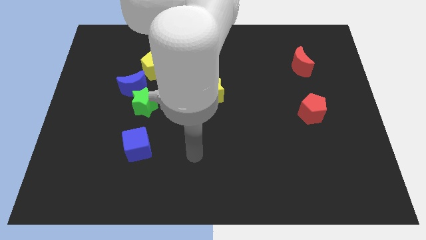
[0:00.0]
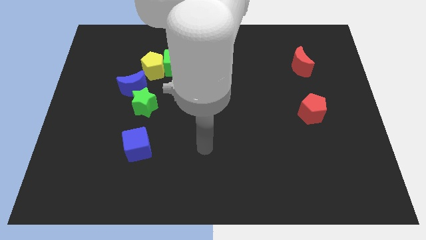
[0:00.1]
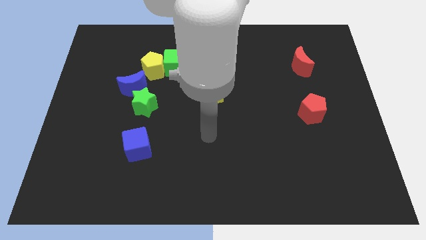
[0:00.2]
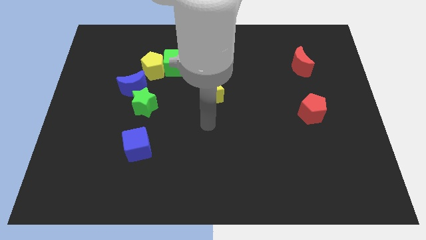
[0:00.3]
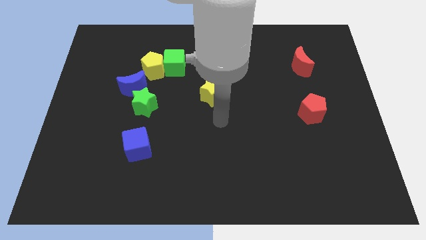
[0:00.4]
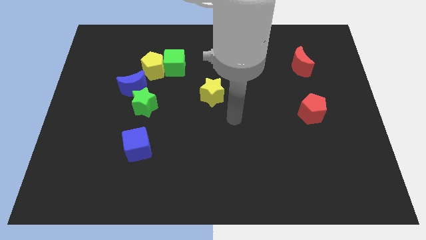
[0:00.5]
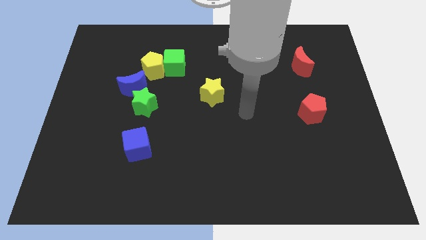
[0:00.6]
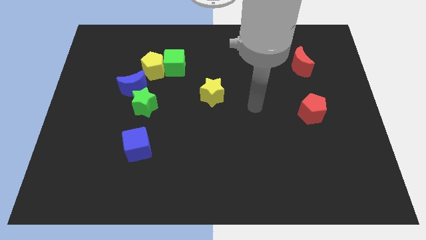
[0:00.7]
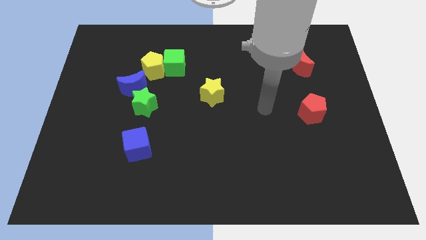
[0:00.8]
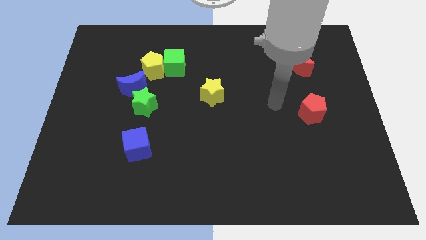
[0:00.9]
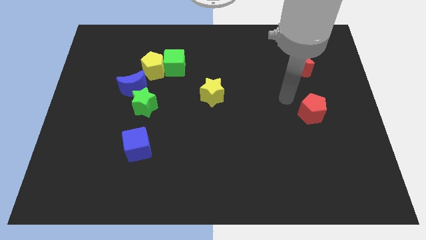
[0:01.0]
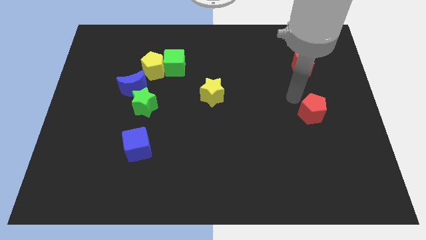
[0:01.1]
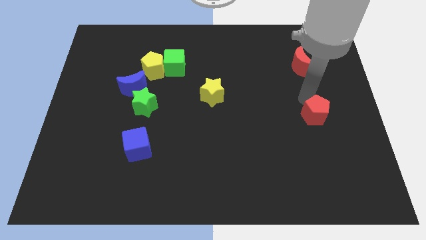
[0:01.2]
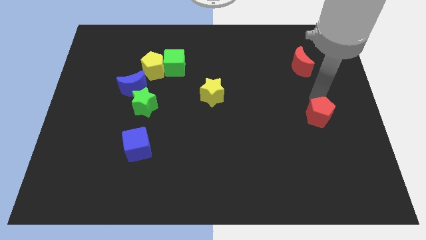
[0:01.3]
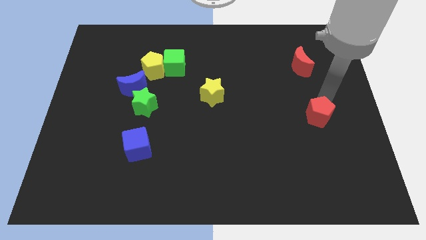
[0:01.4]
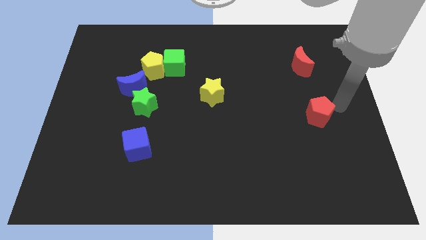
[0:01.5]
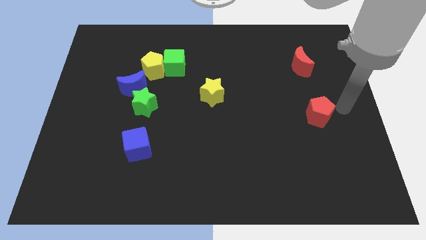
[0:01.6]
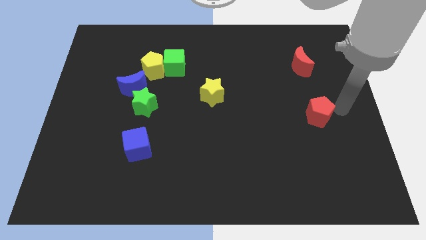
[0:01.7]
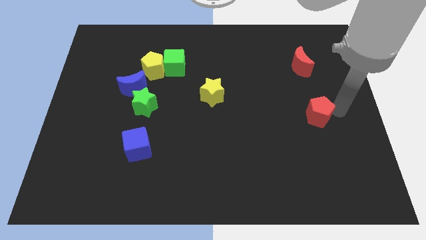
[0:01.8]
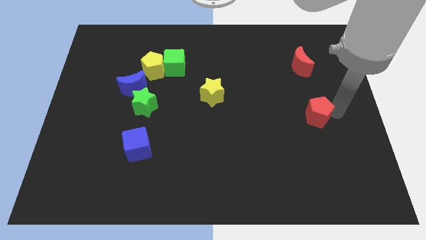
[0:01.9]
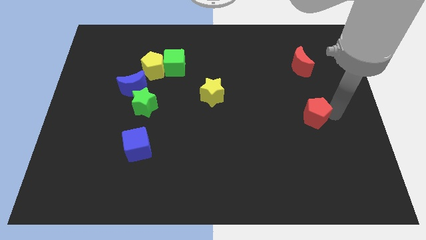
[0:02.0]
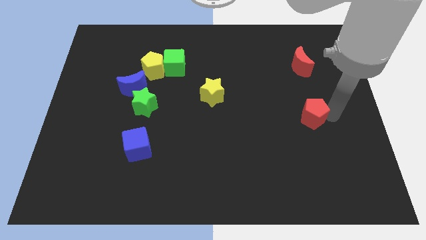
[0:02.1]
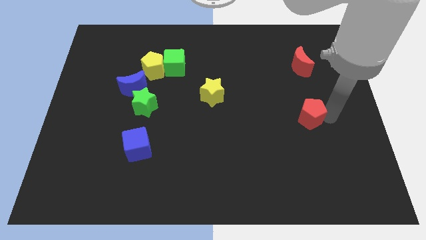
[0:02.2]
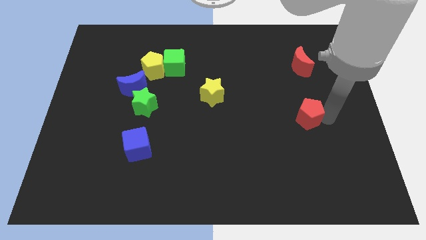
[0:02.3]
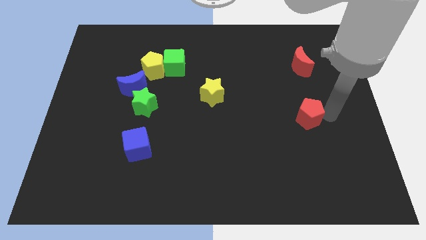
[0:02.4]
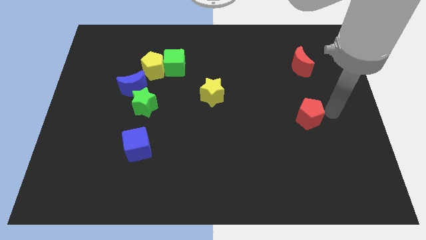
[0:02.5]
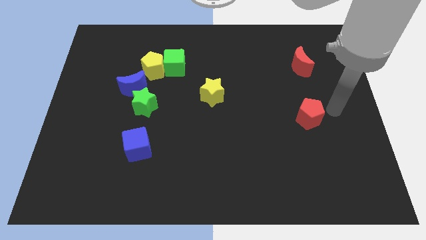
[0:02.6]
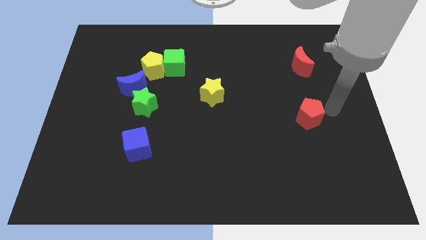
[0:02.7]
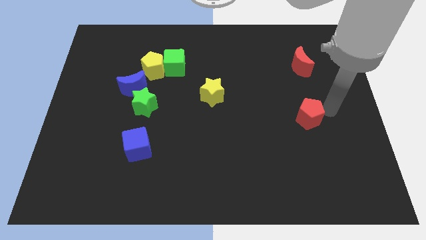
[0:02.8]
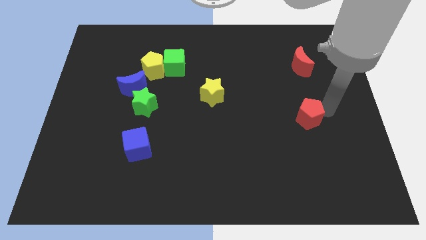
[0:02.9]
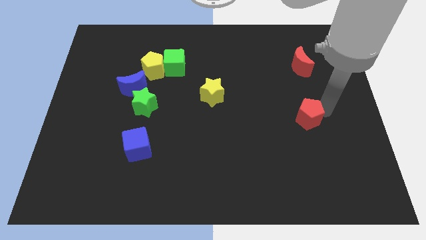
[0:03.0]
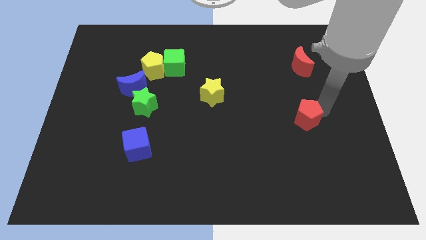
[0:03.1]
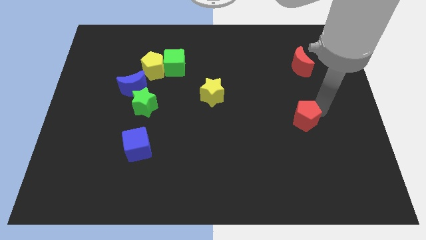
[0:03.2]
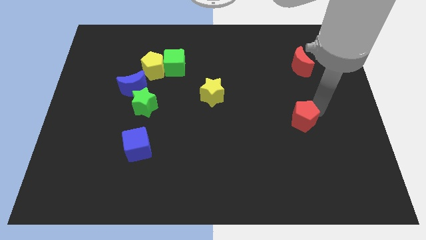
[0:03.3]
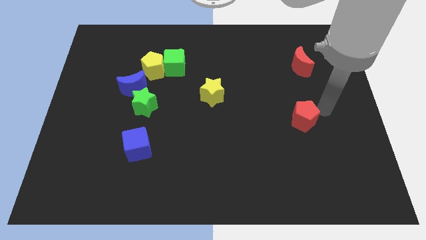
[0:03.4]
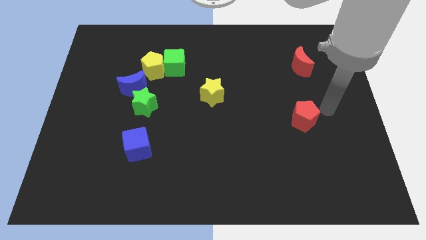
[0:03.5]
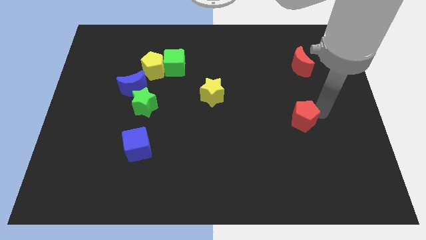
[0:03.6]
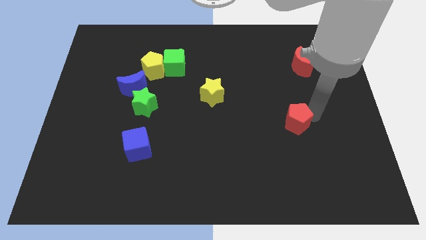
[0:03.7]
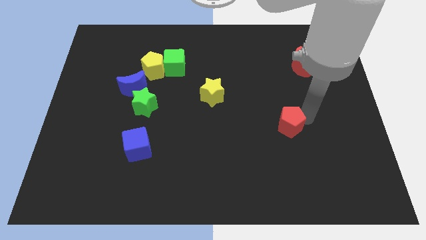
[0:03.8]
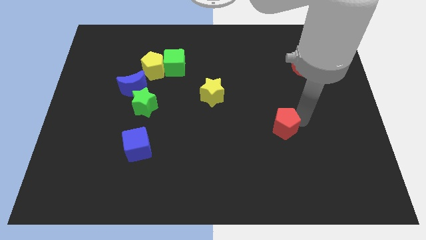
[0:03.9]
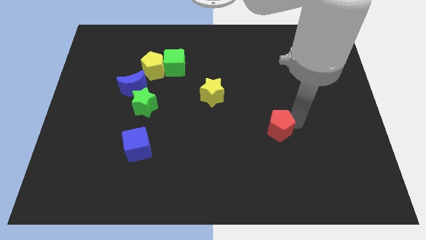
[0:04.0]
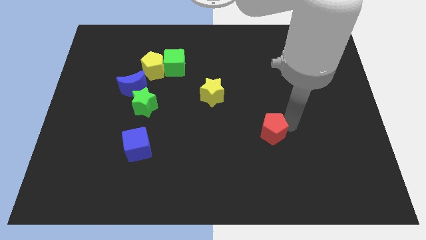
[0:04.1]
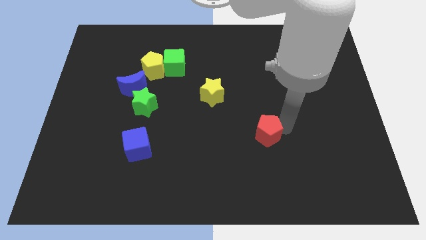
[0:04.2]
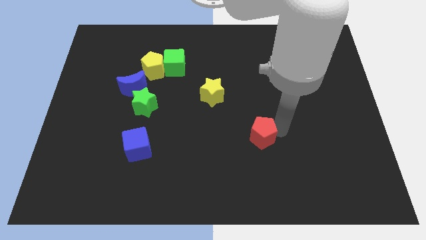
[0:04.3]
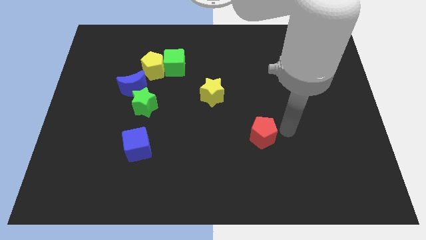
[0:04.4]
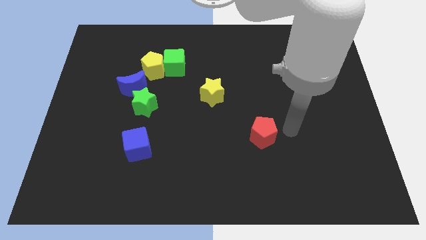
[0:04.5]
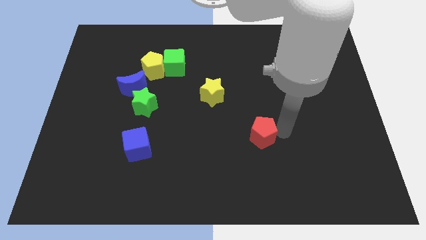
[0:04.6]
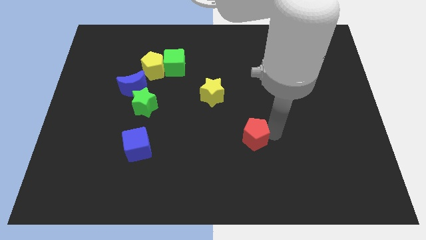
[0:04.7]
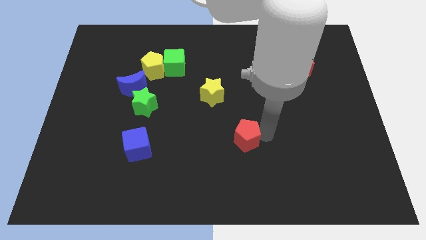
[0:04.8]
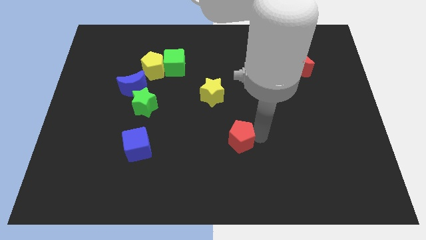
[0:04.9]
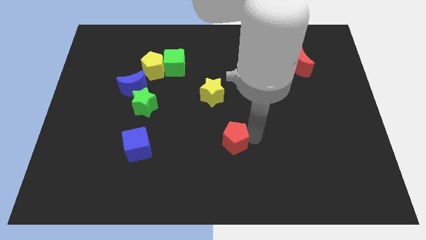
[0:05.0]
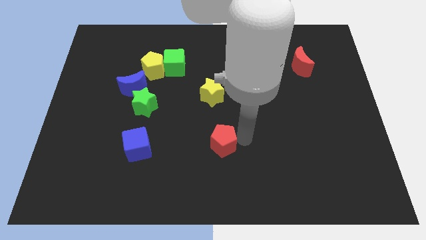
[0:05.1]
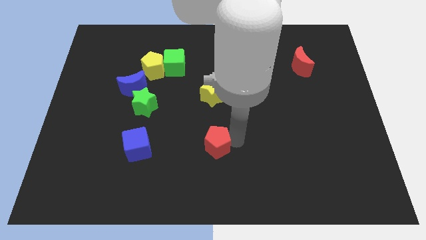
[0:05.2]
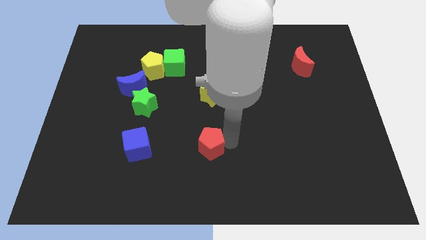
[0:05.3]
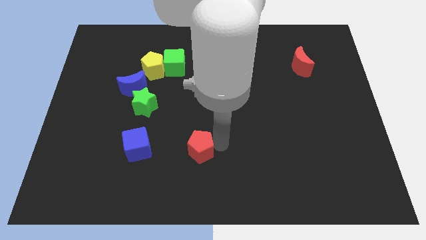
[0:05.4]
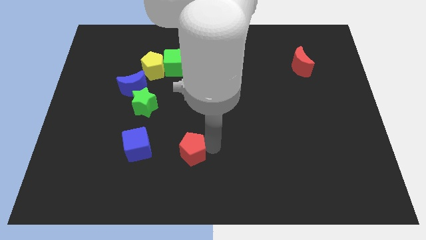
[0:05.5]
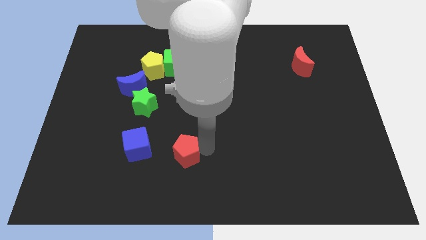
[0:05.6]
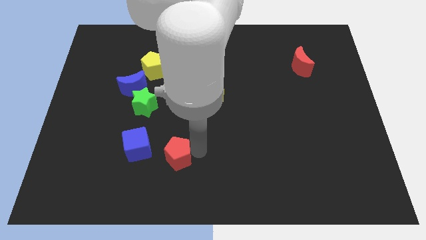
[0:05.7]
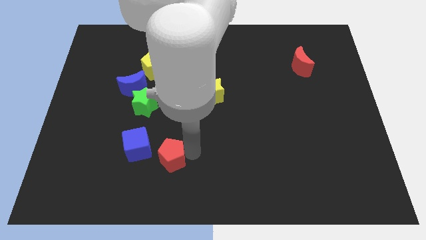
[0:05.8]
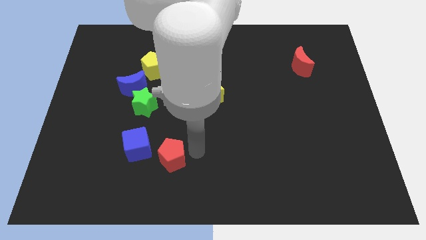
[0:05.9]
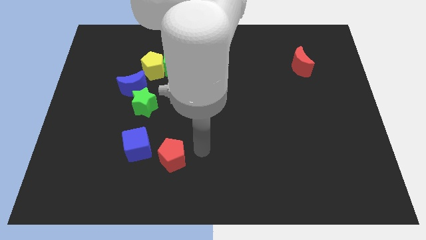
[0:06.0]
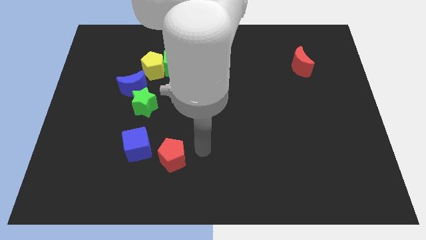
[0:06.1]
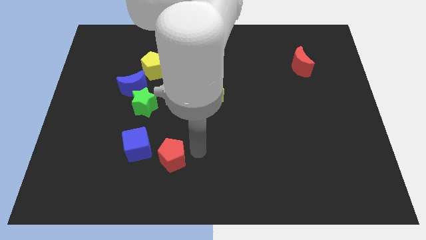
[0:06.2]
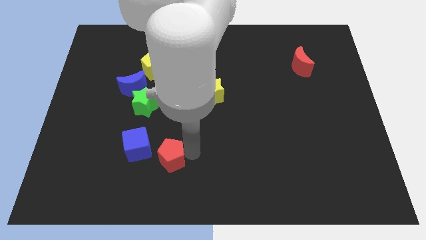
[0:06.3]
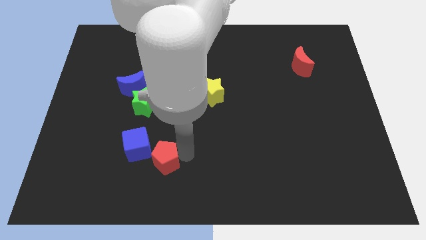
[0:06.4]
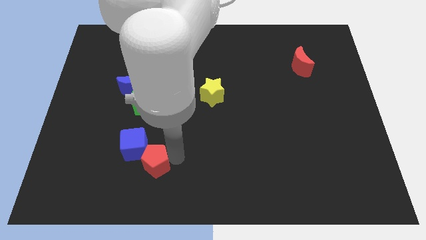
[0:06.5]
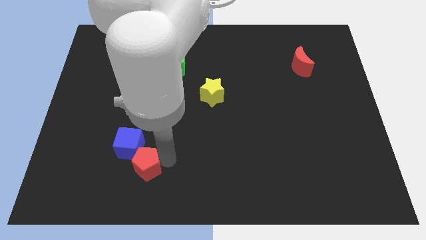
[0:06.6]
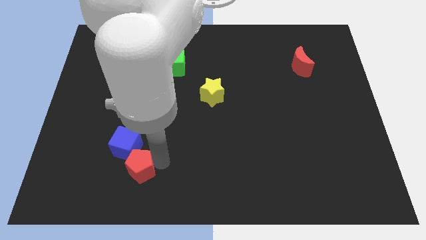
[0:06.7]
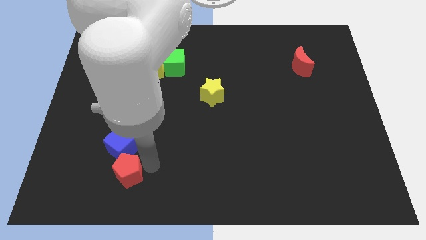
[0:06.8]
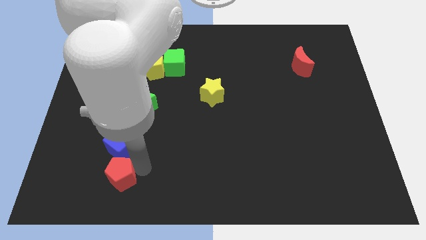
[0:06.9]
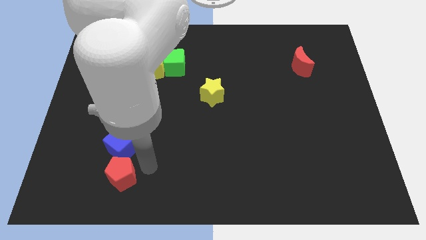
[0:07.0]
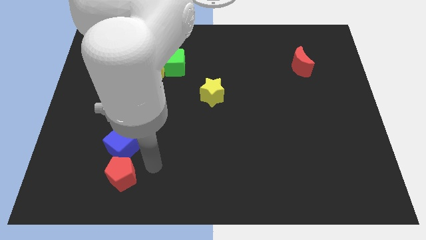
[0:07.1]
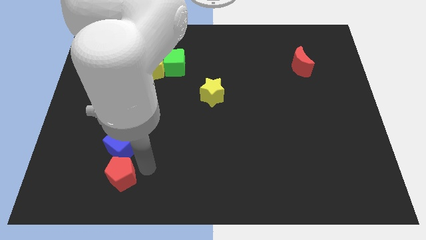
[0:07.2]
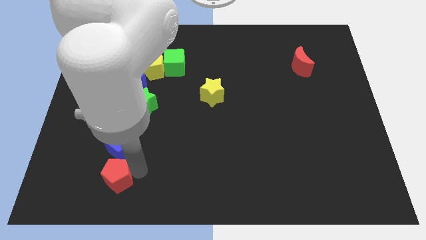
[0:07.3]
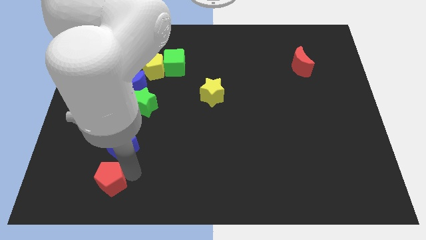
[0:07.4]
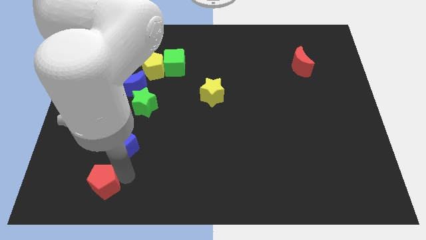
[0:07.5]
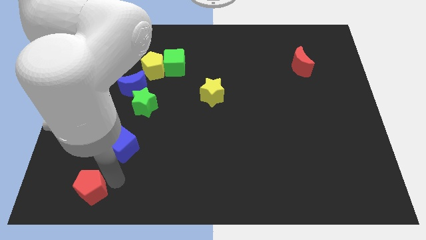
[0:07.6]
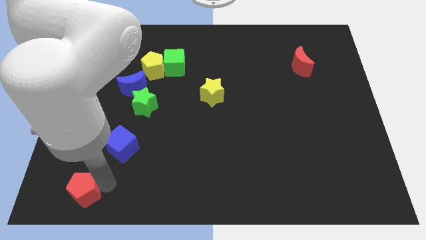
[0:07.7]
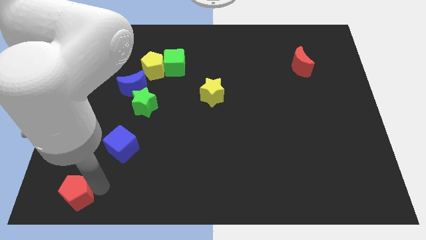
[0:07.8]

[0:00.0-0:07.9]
put the red pentagon to the lower left corner
